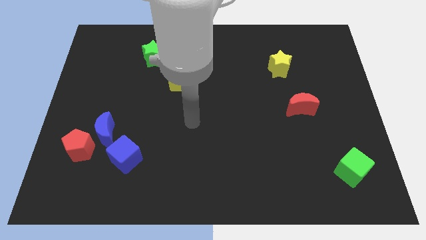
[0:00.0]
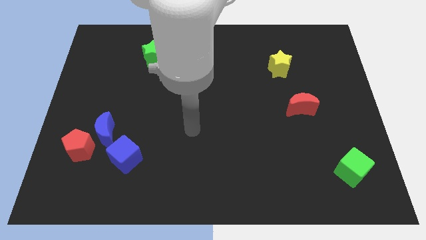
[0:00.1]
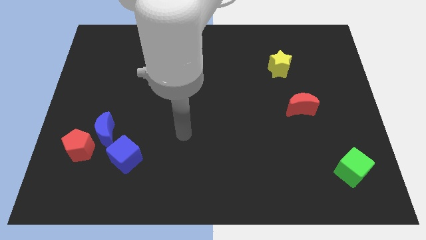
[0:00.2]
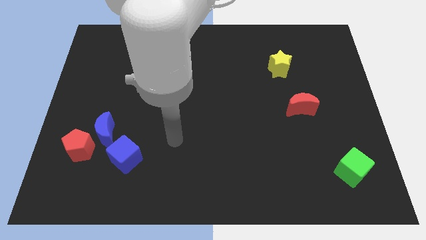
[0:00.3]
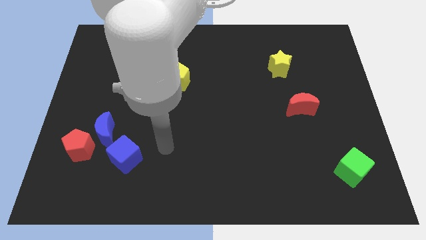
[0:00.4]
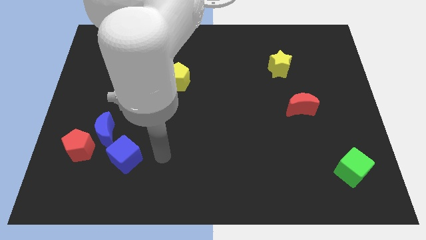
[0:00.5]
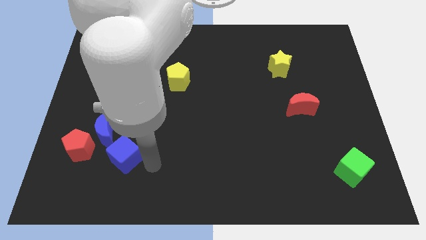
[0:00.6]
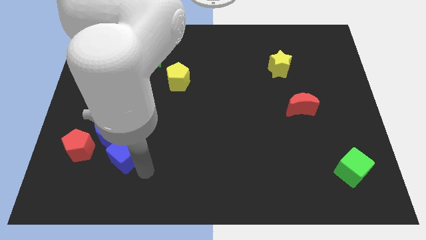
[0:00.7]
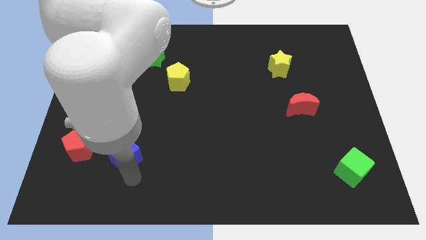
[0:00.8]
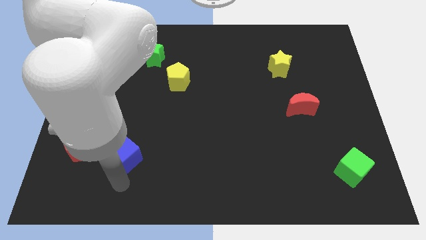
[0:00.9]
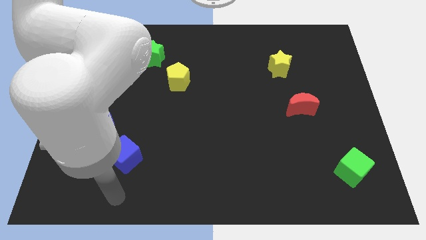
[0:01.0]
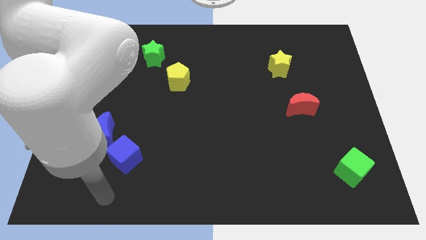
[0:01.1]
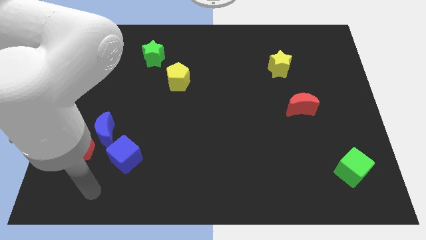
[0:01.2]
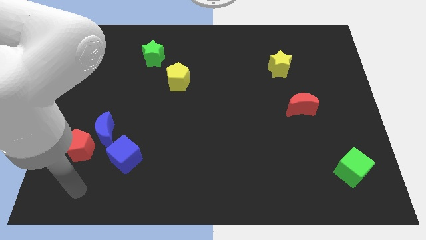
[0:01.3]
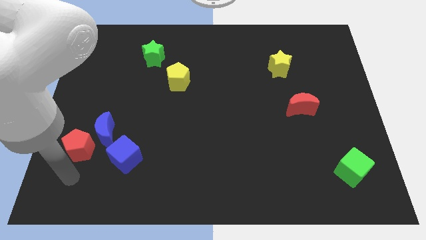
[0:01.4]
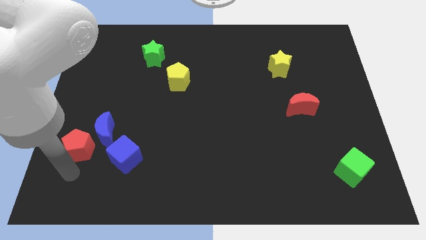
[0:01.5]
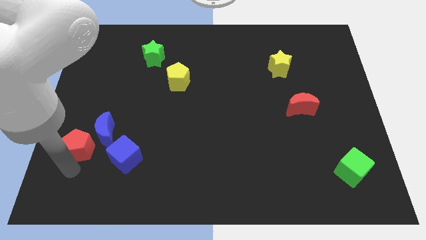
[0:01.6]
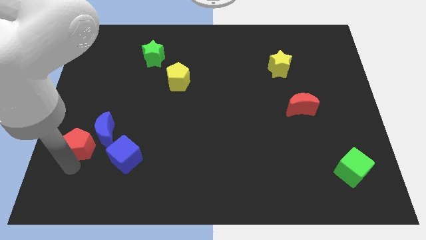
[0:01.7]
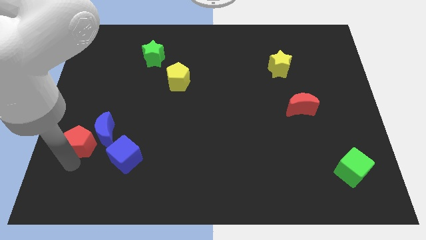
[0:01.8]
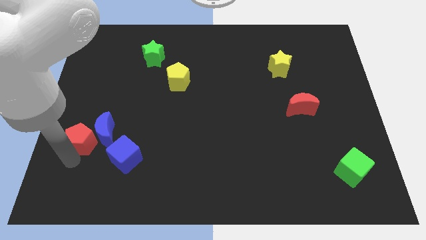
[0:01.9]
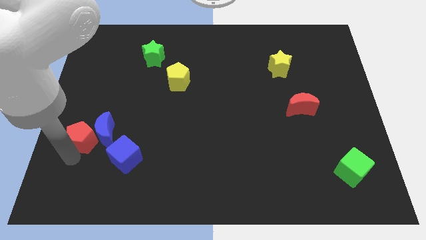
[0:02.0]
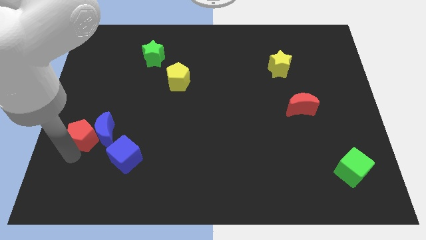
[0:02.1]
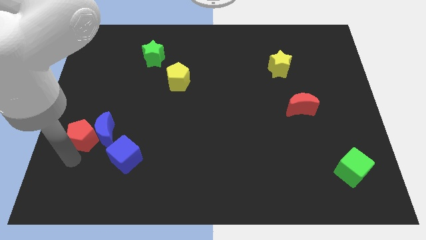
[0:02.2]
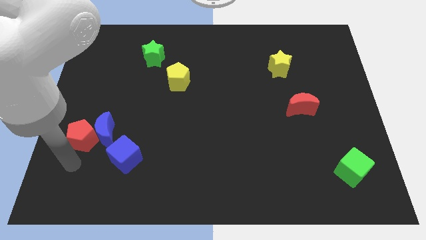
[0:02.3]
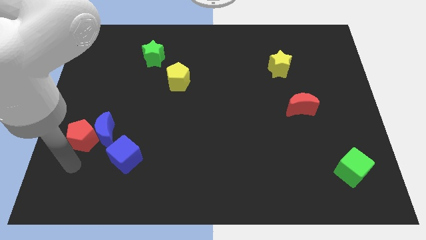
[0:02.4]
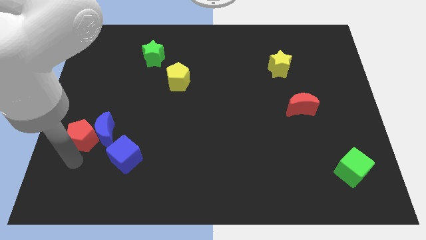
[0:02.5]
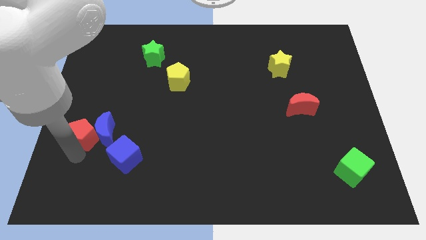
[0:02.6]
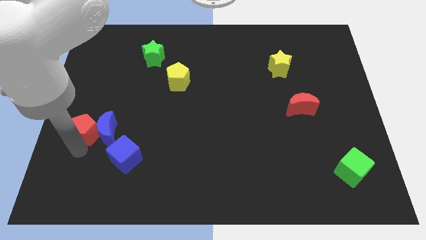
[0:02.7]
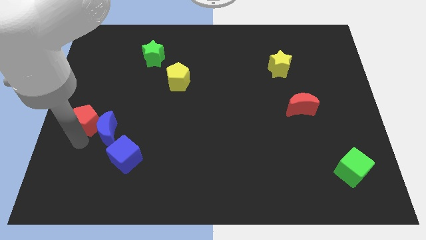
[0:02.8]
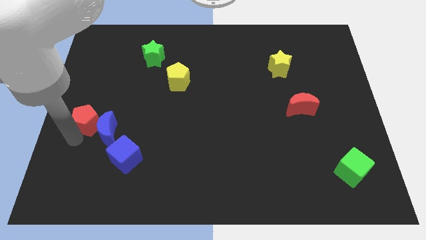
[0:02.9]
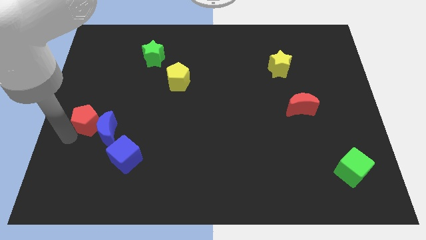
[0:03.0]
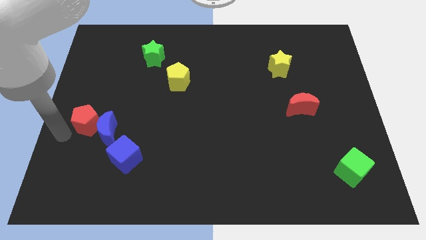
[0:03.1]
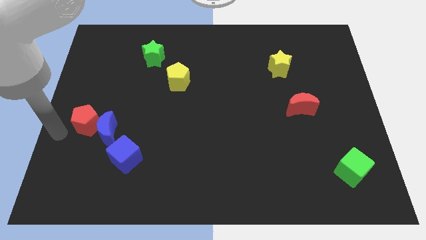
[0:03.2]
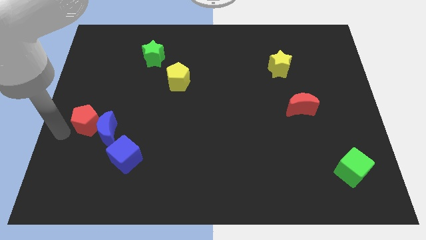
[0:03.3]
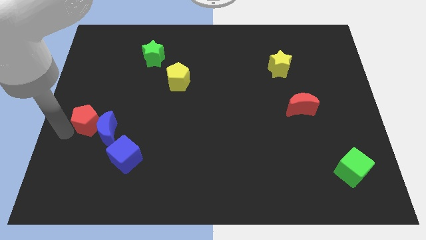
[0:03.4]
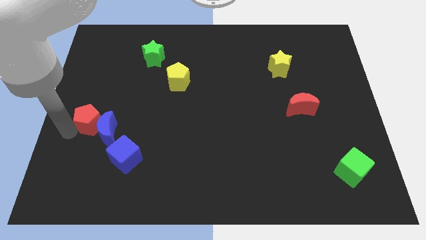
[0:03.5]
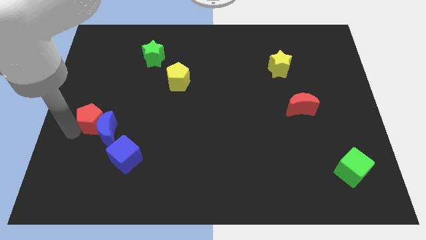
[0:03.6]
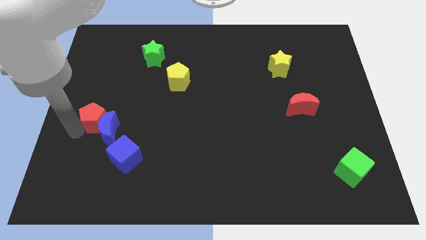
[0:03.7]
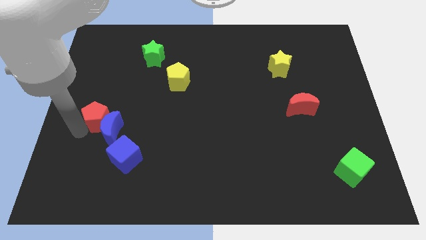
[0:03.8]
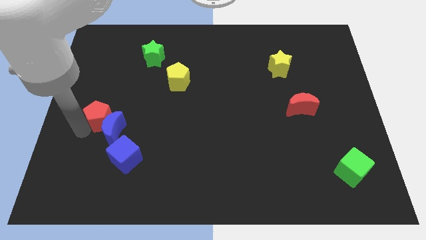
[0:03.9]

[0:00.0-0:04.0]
slide the red pentagon somewhat upwards and to the right

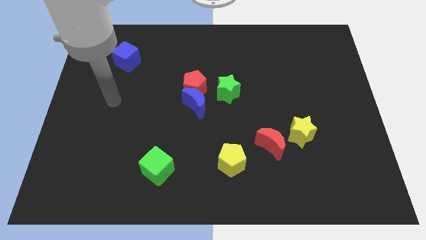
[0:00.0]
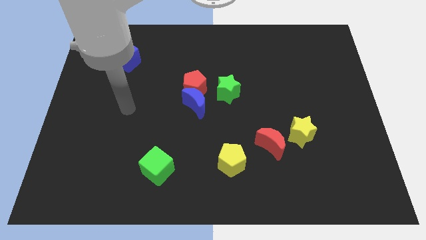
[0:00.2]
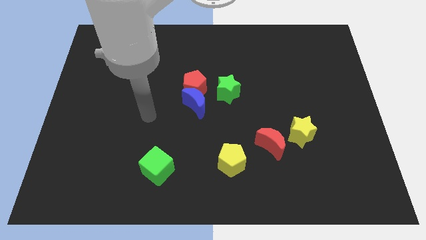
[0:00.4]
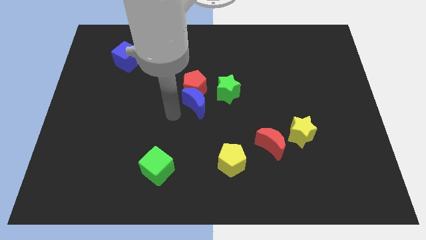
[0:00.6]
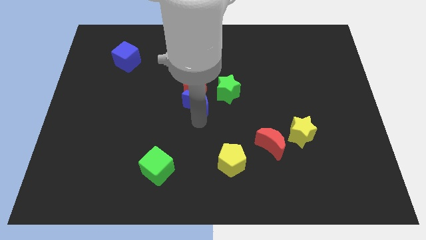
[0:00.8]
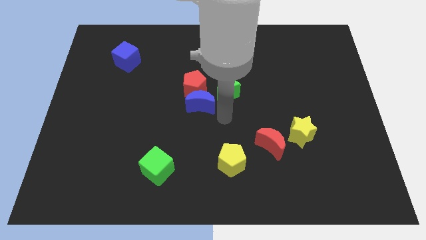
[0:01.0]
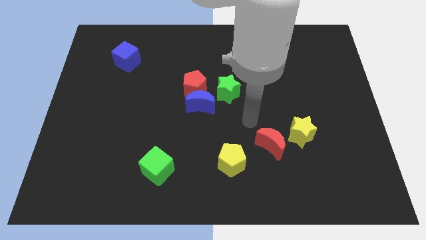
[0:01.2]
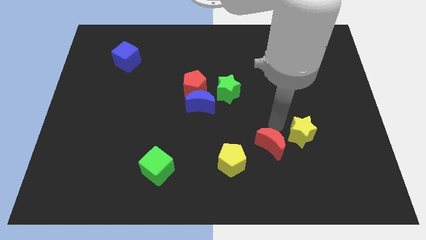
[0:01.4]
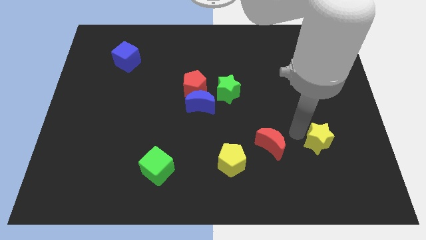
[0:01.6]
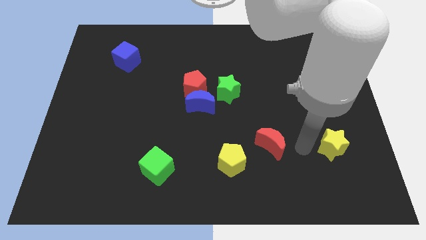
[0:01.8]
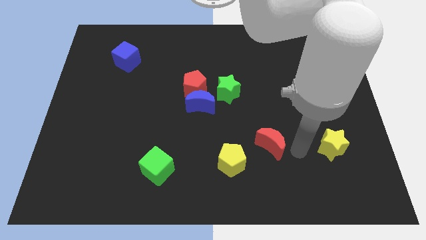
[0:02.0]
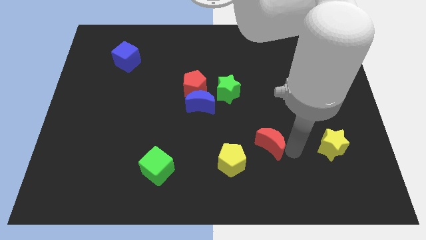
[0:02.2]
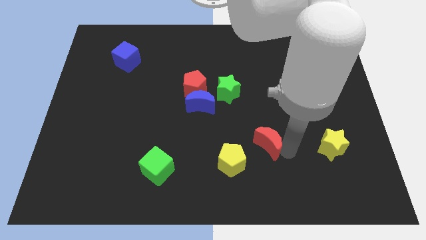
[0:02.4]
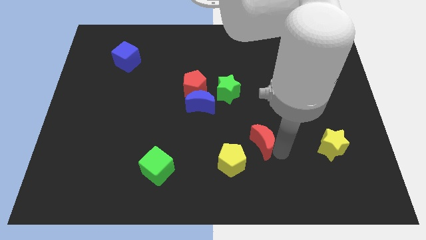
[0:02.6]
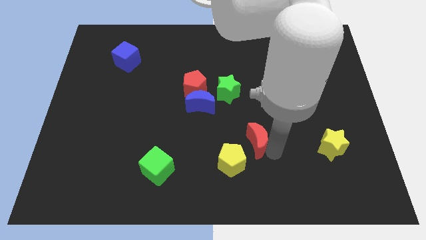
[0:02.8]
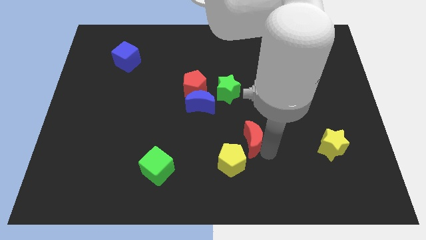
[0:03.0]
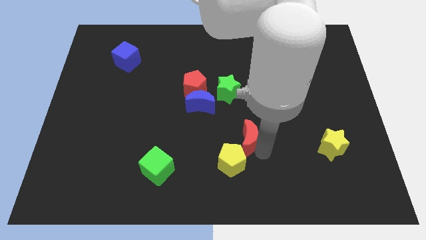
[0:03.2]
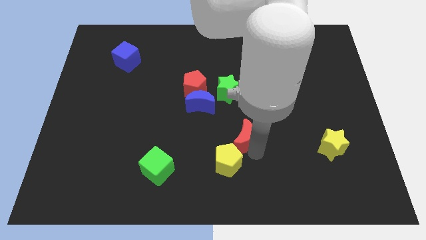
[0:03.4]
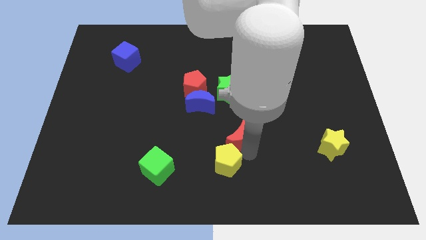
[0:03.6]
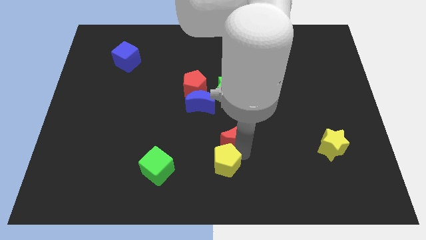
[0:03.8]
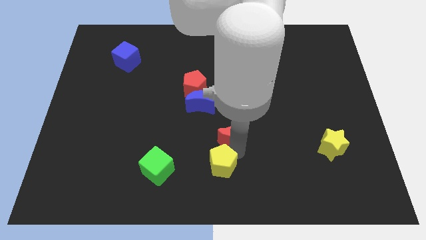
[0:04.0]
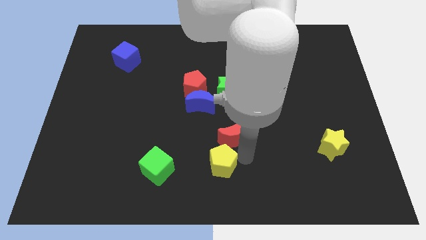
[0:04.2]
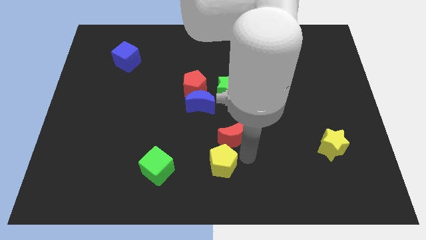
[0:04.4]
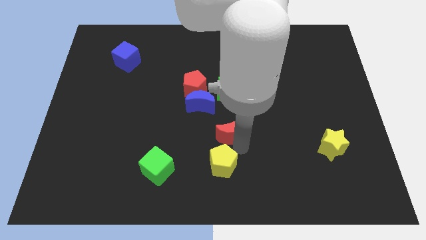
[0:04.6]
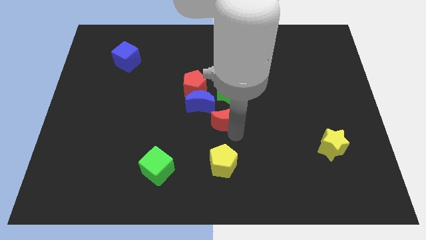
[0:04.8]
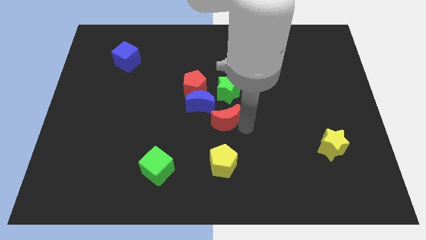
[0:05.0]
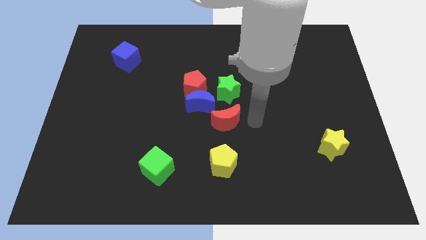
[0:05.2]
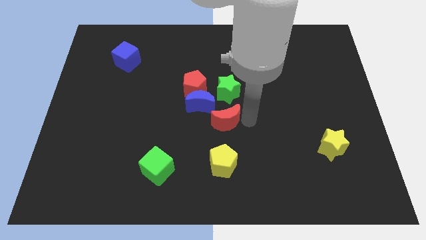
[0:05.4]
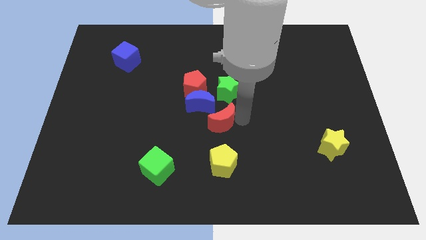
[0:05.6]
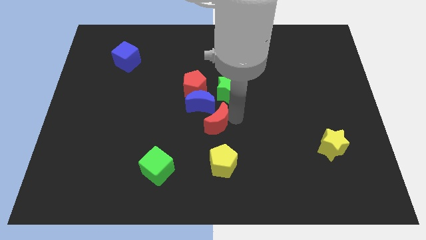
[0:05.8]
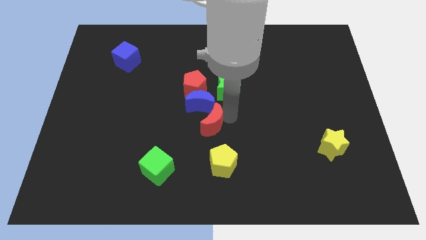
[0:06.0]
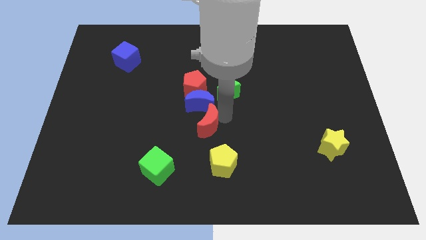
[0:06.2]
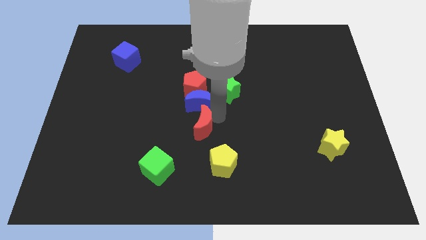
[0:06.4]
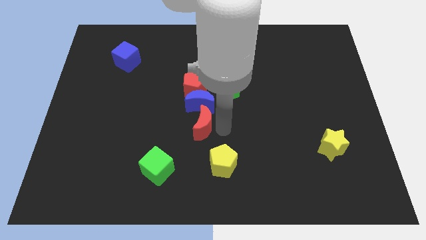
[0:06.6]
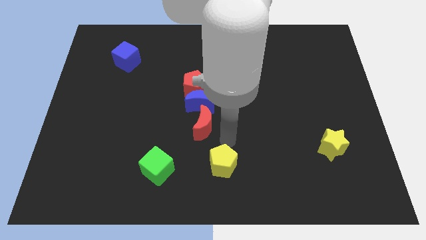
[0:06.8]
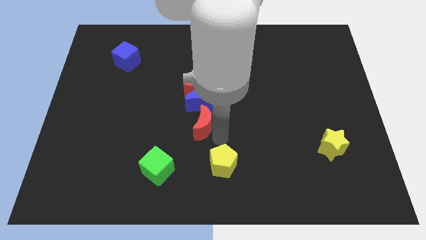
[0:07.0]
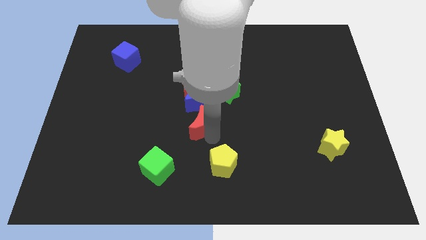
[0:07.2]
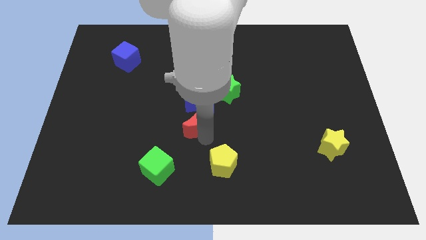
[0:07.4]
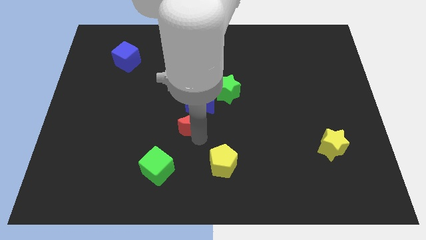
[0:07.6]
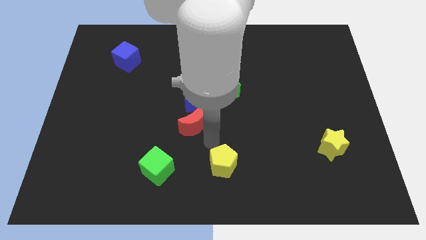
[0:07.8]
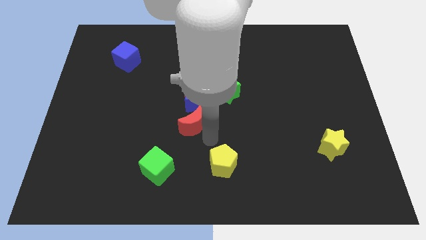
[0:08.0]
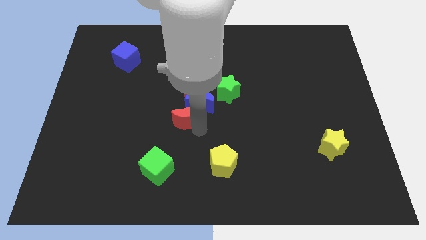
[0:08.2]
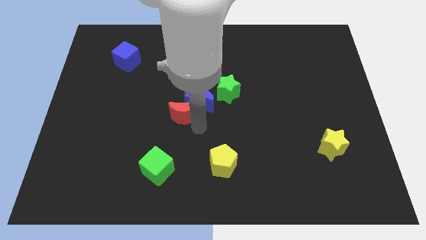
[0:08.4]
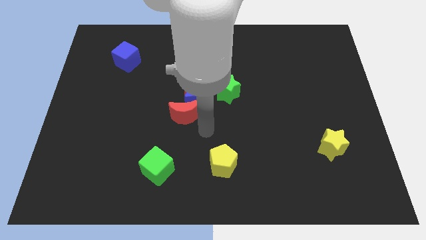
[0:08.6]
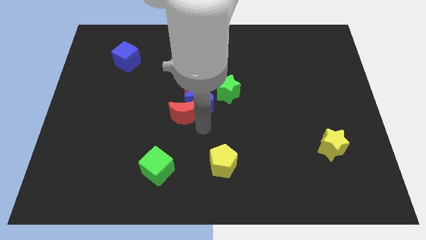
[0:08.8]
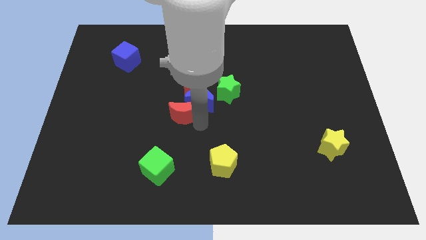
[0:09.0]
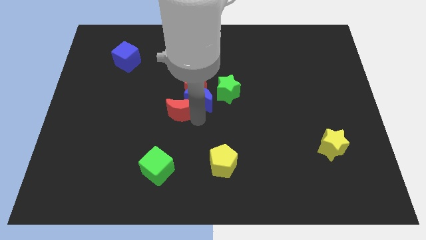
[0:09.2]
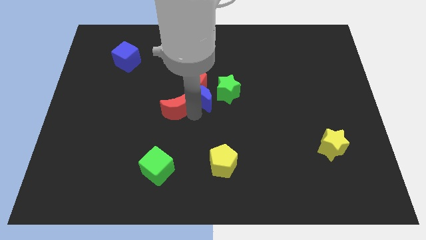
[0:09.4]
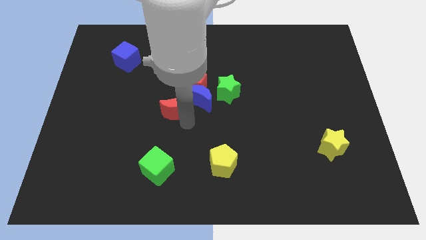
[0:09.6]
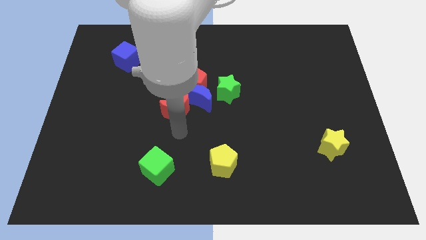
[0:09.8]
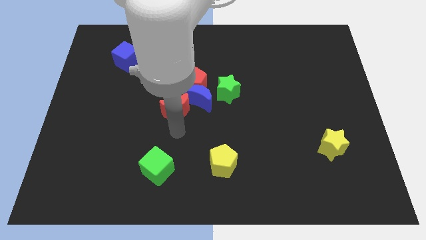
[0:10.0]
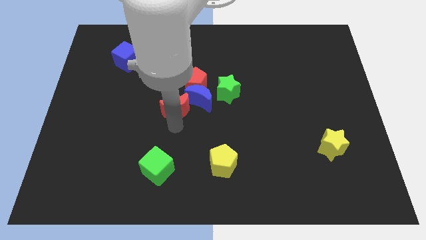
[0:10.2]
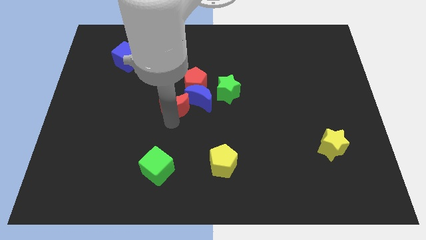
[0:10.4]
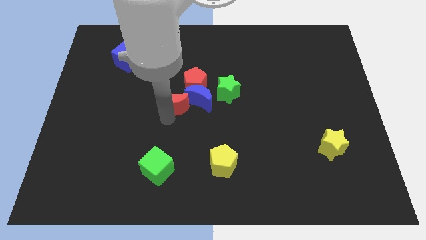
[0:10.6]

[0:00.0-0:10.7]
push the red moon up and to the left diagonally
